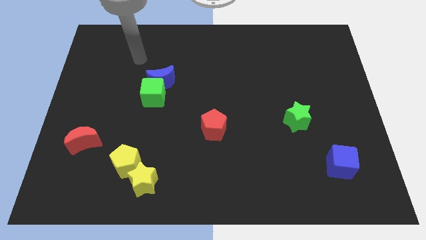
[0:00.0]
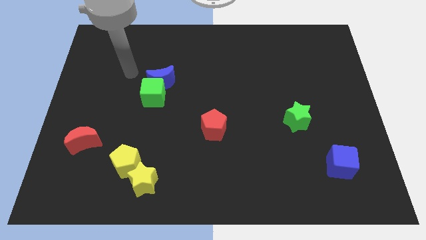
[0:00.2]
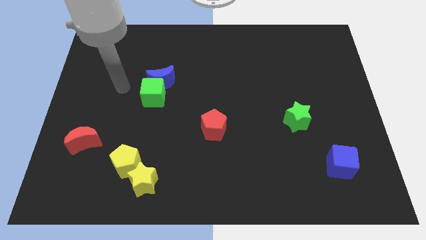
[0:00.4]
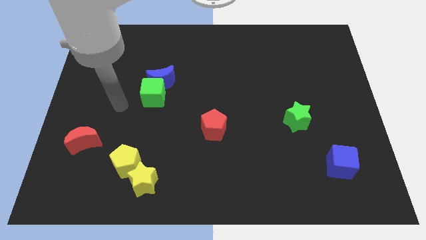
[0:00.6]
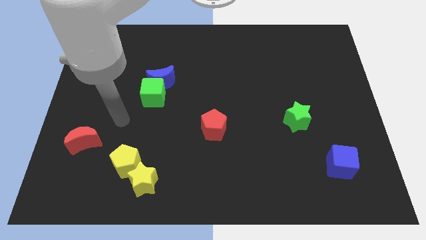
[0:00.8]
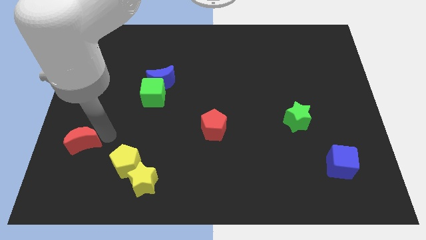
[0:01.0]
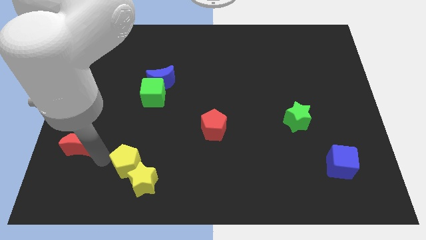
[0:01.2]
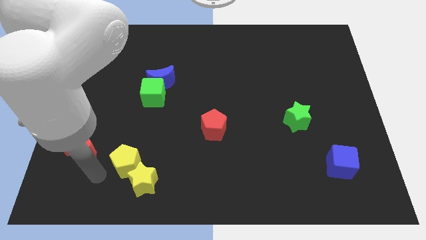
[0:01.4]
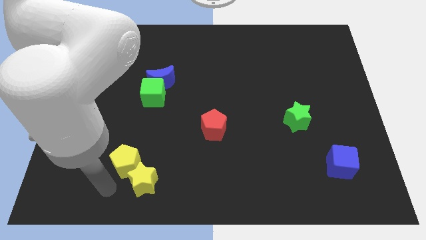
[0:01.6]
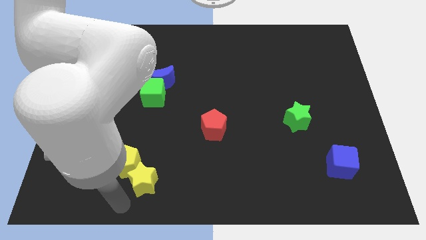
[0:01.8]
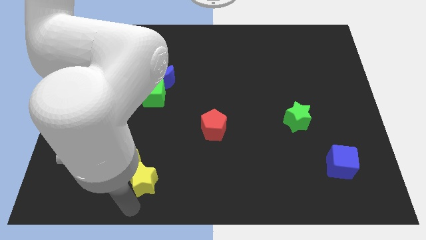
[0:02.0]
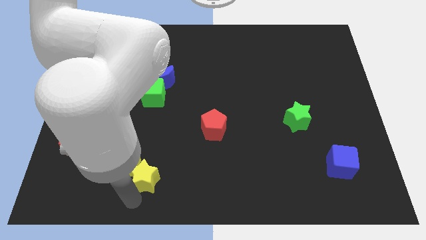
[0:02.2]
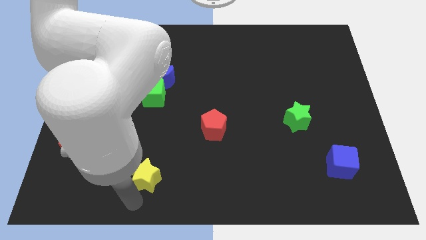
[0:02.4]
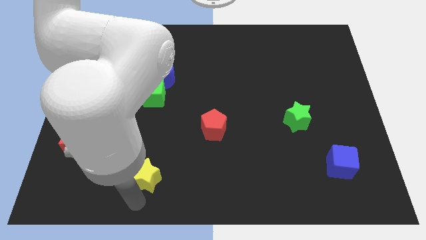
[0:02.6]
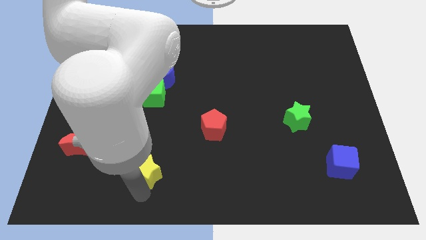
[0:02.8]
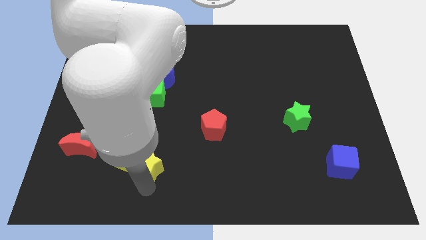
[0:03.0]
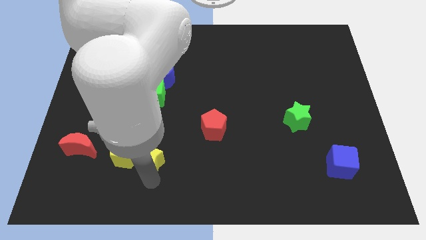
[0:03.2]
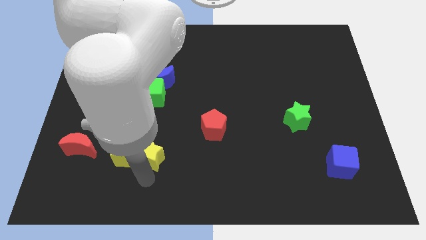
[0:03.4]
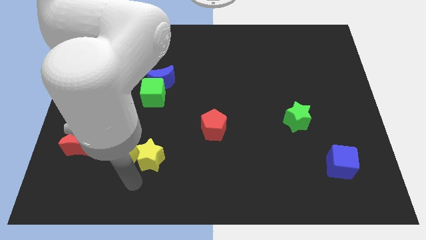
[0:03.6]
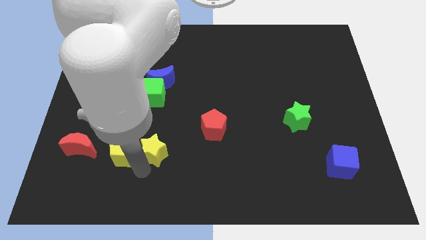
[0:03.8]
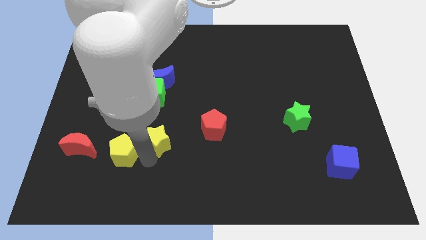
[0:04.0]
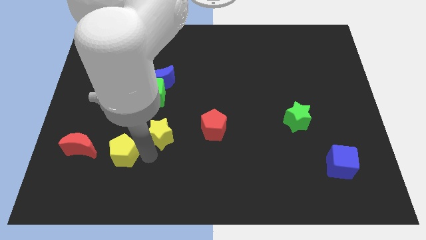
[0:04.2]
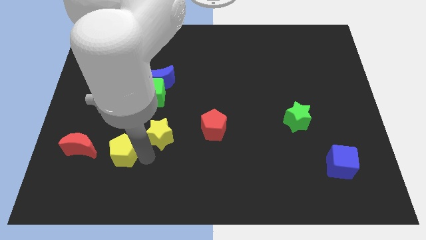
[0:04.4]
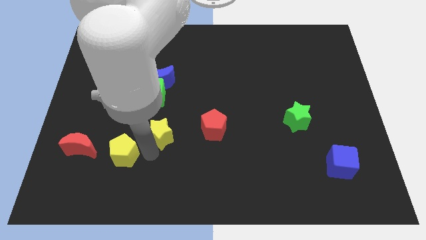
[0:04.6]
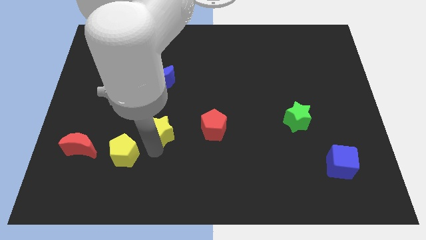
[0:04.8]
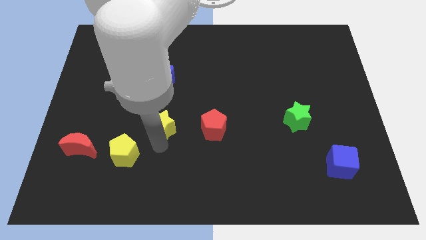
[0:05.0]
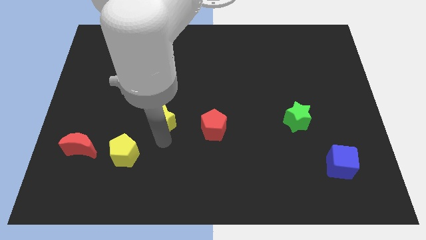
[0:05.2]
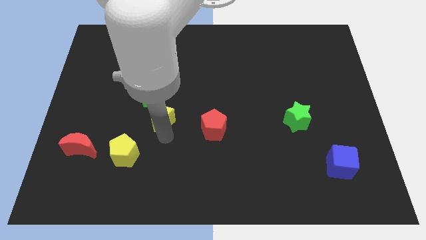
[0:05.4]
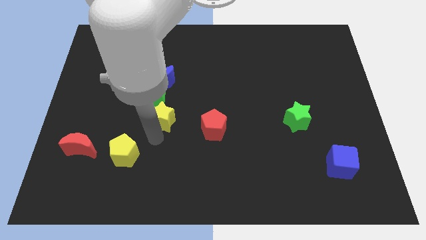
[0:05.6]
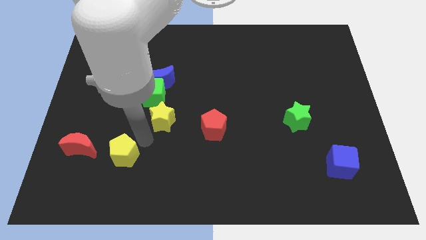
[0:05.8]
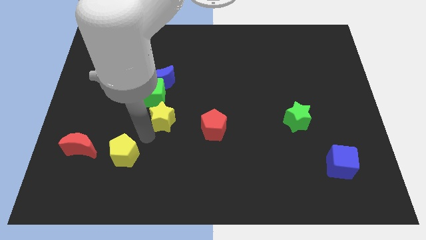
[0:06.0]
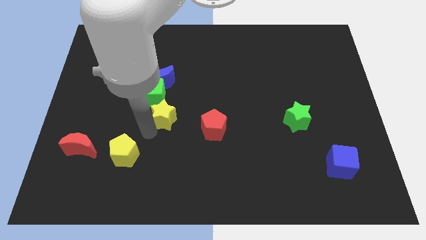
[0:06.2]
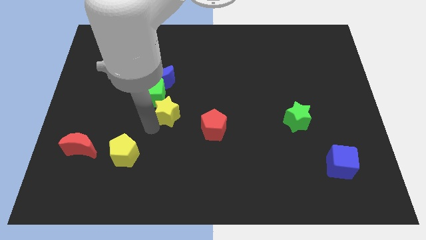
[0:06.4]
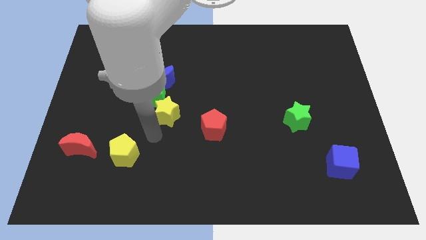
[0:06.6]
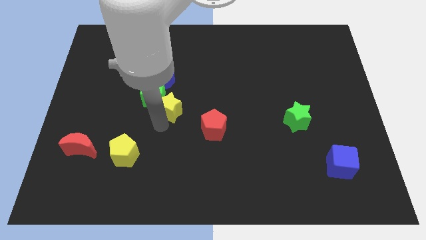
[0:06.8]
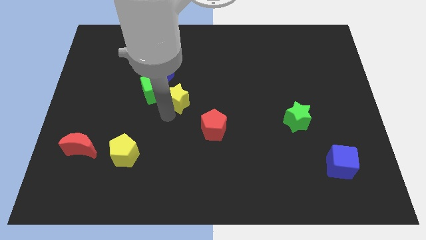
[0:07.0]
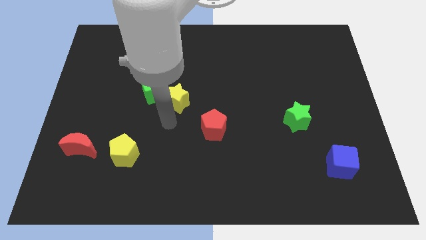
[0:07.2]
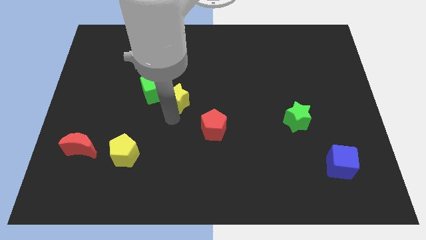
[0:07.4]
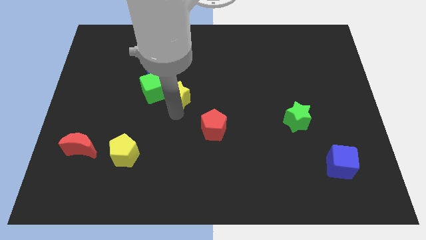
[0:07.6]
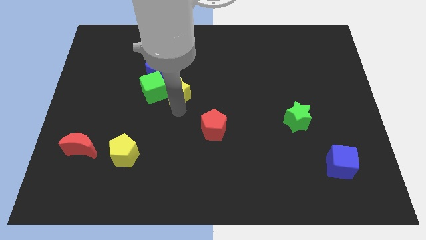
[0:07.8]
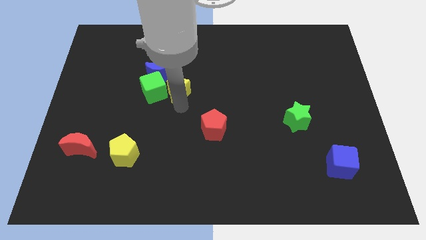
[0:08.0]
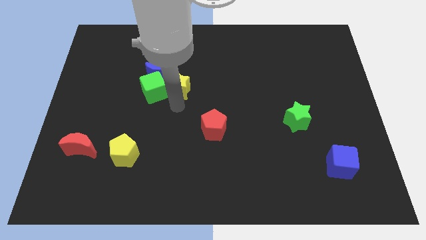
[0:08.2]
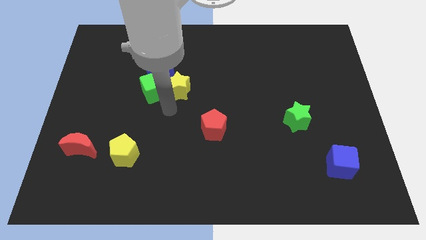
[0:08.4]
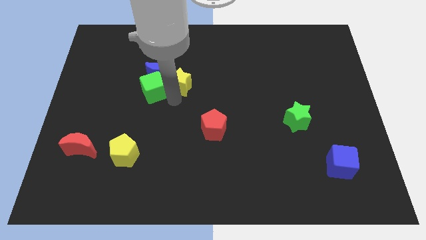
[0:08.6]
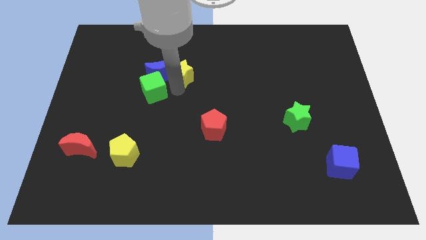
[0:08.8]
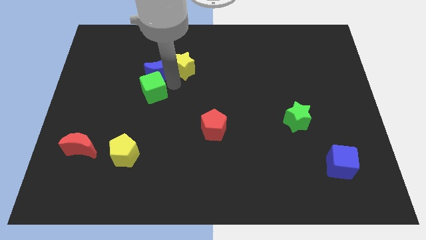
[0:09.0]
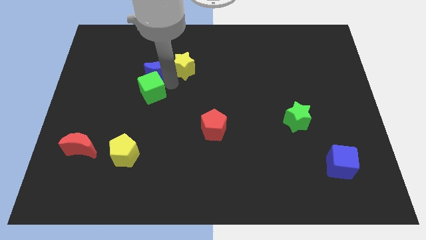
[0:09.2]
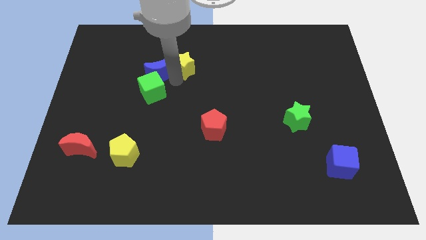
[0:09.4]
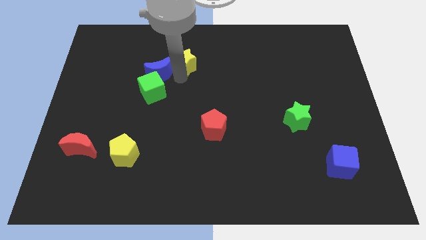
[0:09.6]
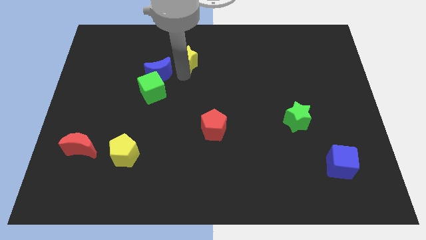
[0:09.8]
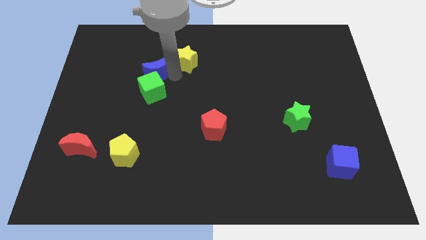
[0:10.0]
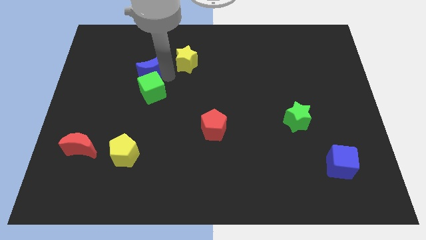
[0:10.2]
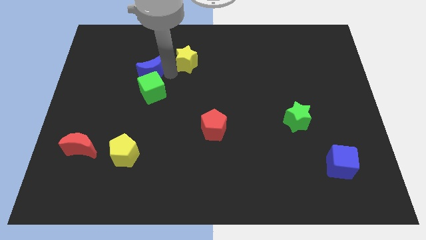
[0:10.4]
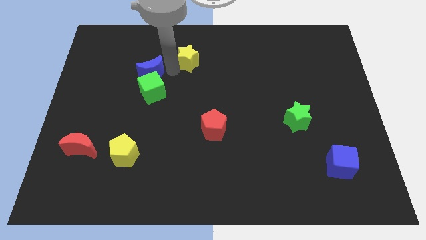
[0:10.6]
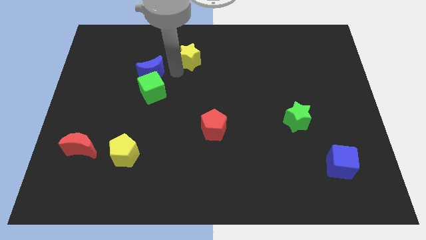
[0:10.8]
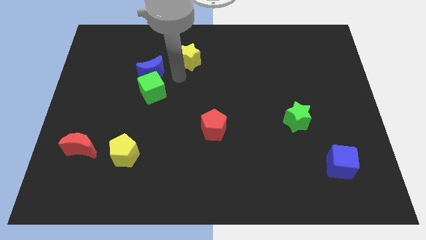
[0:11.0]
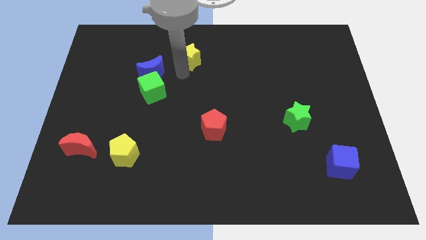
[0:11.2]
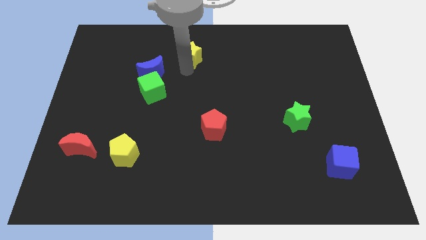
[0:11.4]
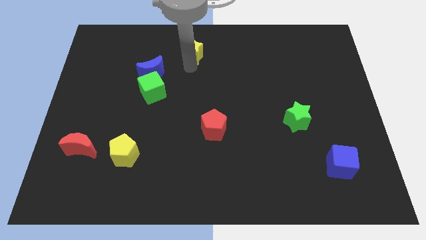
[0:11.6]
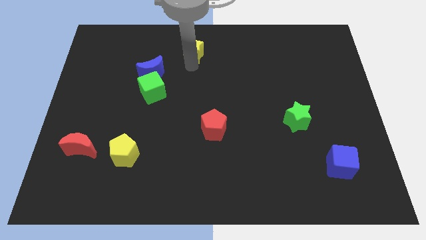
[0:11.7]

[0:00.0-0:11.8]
push the yellow star to the top side
